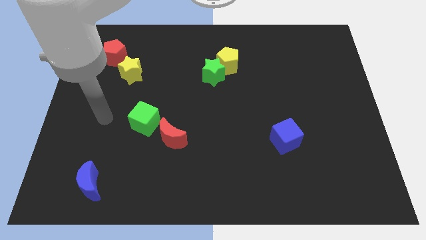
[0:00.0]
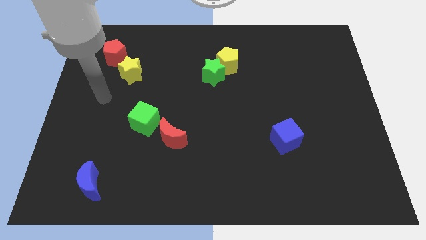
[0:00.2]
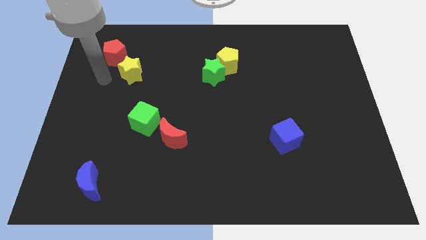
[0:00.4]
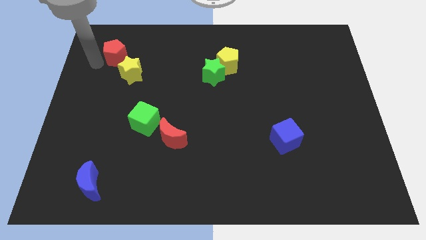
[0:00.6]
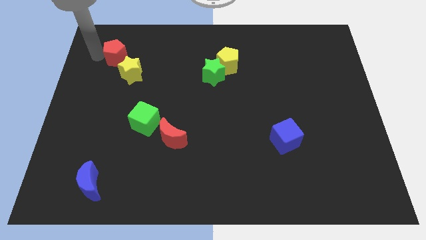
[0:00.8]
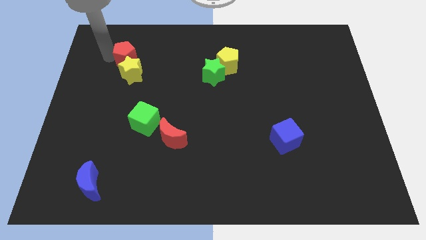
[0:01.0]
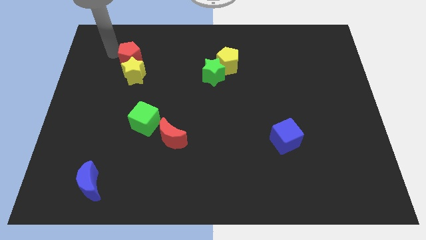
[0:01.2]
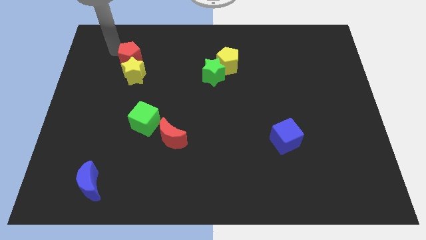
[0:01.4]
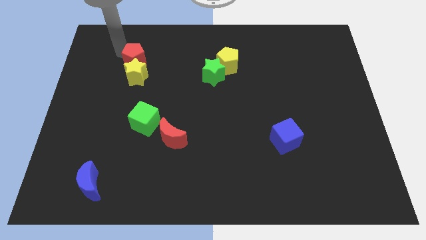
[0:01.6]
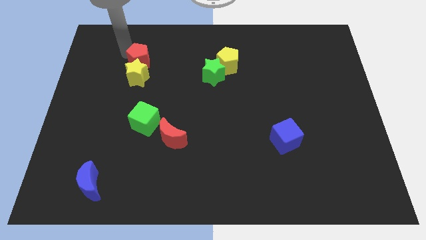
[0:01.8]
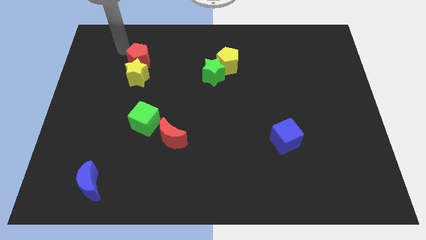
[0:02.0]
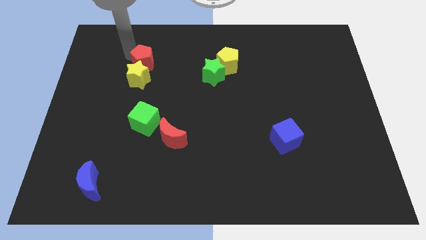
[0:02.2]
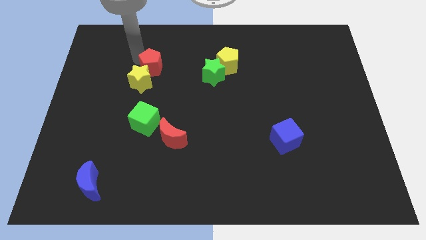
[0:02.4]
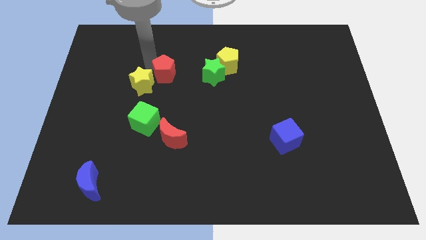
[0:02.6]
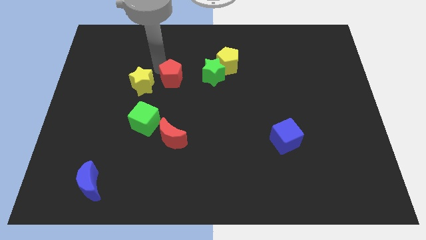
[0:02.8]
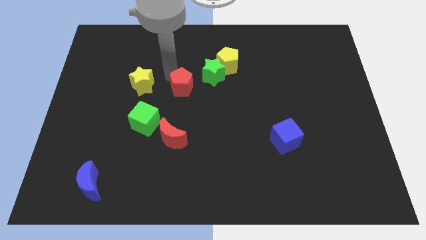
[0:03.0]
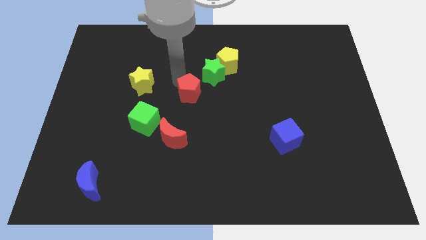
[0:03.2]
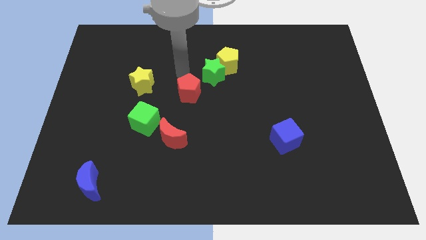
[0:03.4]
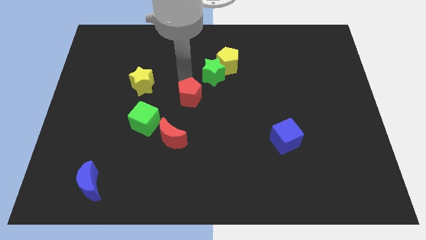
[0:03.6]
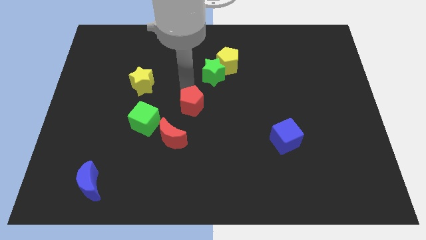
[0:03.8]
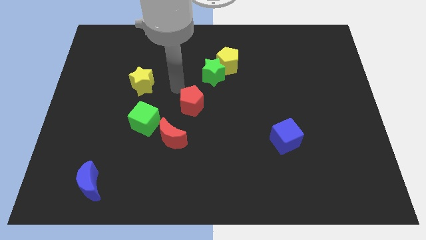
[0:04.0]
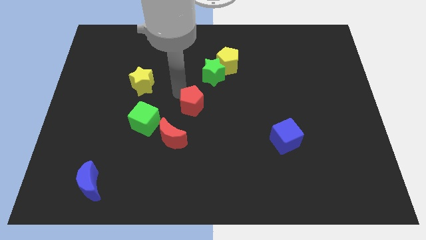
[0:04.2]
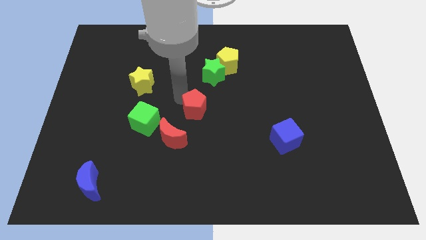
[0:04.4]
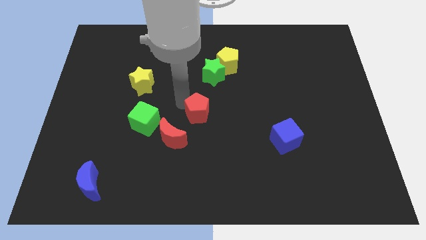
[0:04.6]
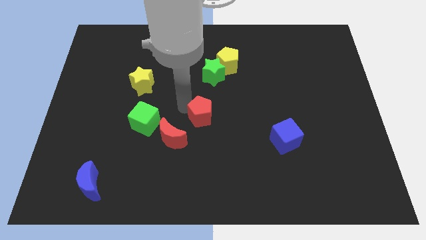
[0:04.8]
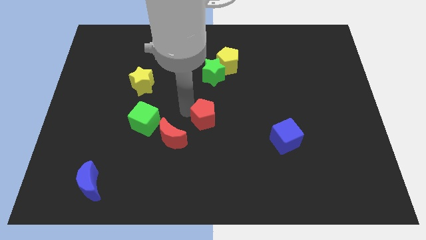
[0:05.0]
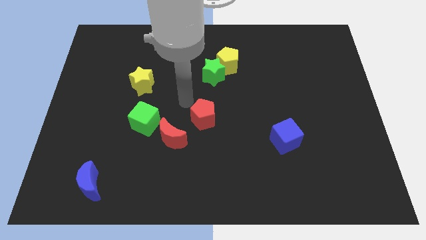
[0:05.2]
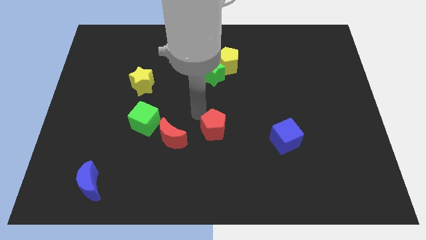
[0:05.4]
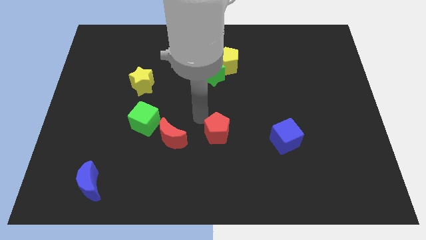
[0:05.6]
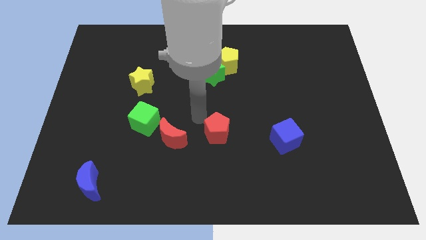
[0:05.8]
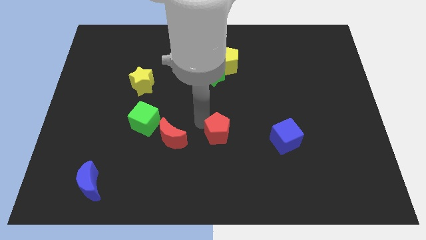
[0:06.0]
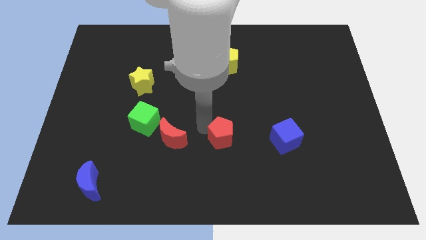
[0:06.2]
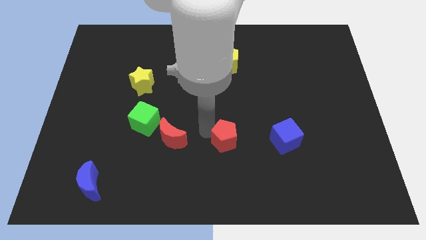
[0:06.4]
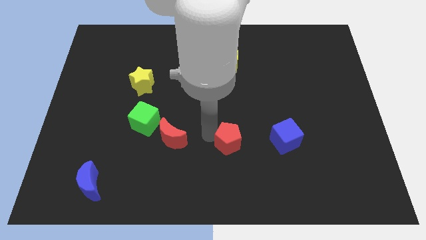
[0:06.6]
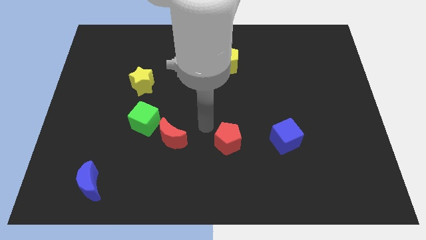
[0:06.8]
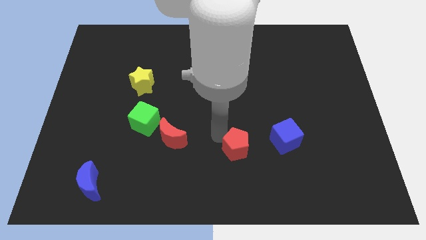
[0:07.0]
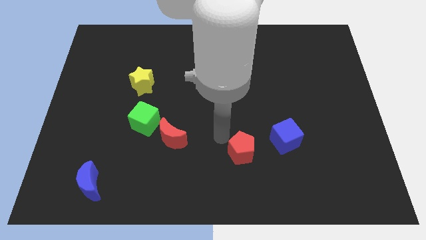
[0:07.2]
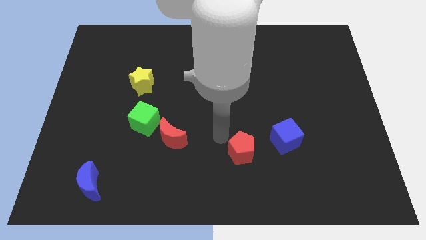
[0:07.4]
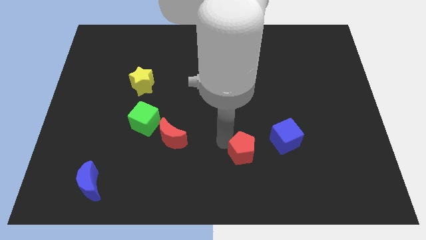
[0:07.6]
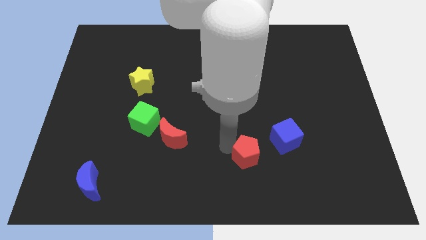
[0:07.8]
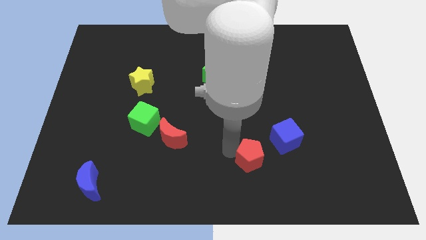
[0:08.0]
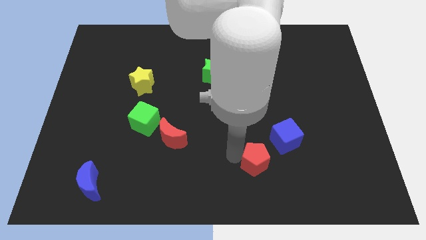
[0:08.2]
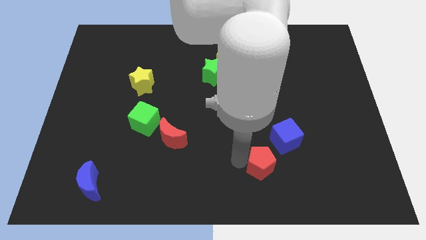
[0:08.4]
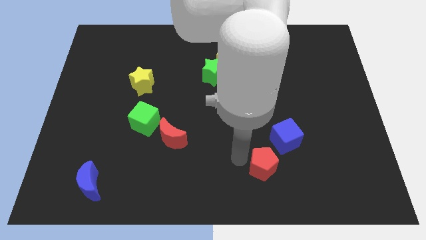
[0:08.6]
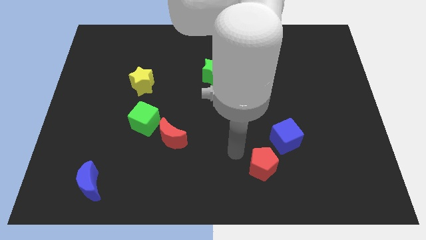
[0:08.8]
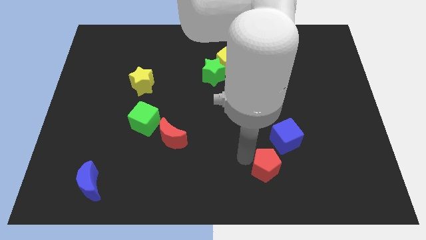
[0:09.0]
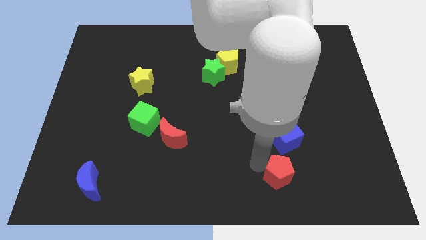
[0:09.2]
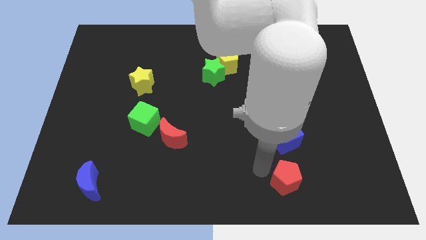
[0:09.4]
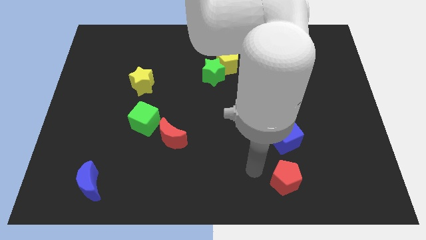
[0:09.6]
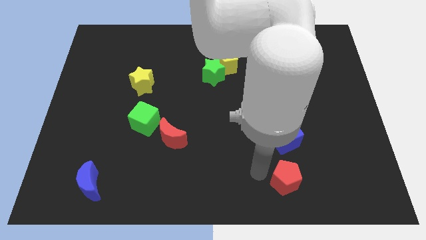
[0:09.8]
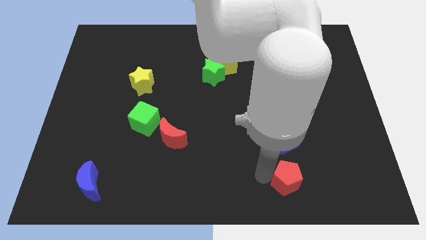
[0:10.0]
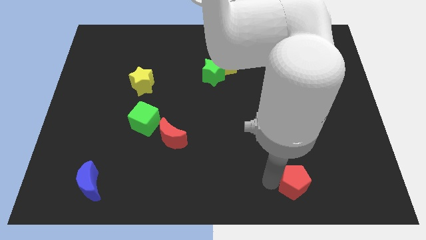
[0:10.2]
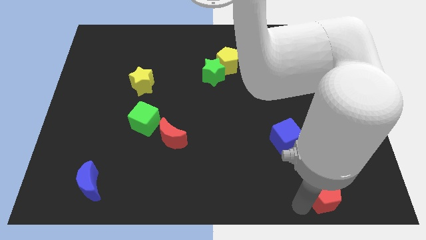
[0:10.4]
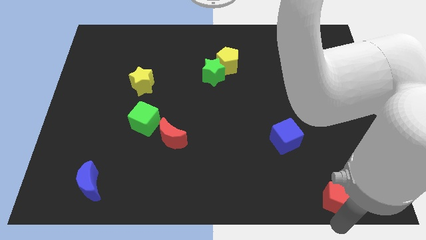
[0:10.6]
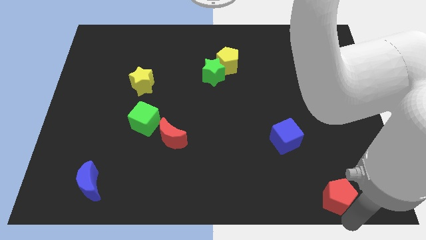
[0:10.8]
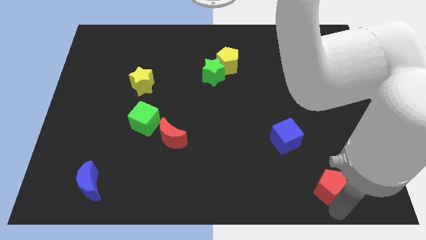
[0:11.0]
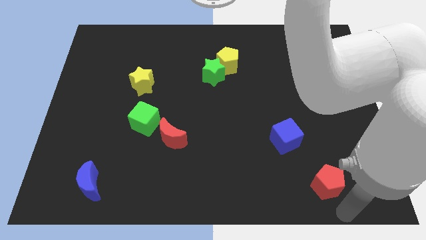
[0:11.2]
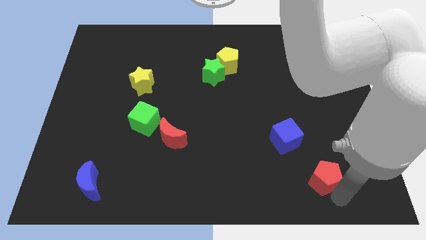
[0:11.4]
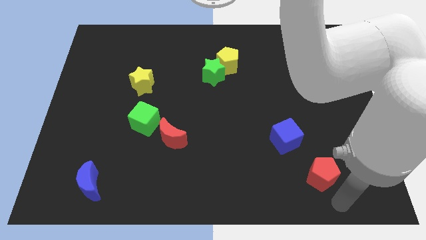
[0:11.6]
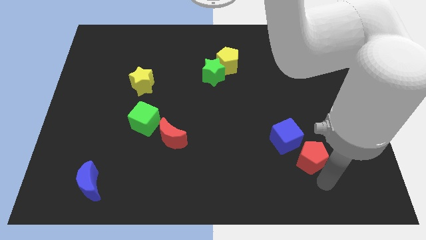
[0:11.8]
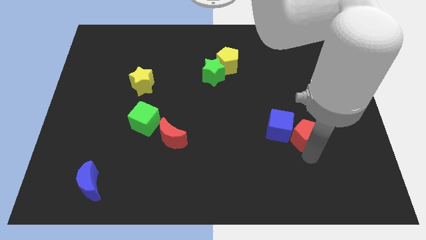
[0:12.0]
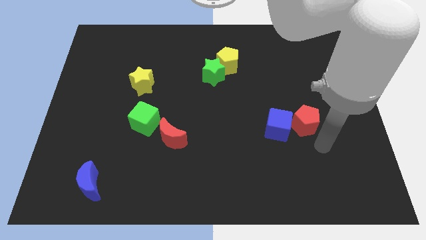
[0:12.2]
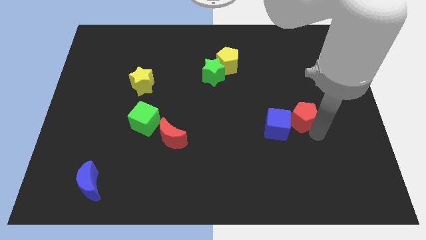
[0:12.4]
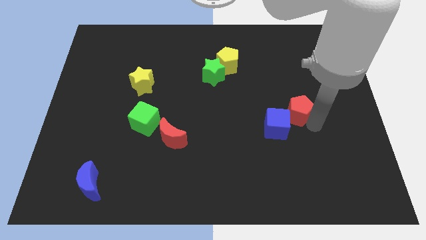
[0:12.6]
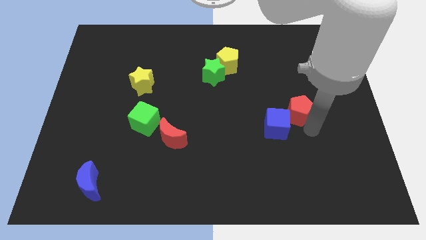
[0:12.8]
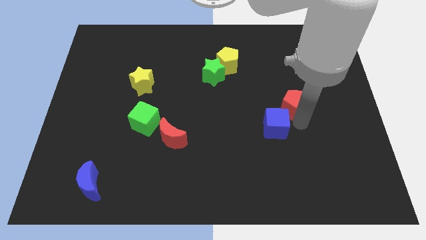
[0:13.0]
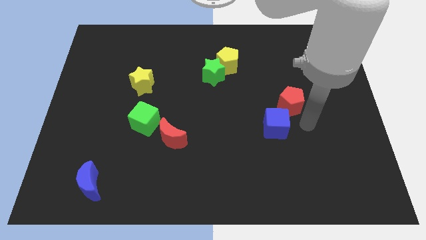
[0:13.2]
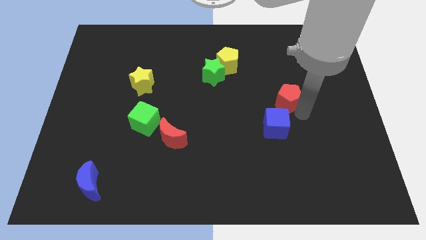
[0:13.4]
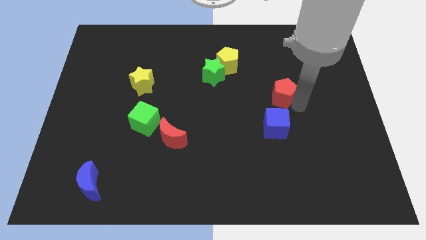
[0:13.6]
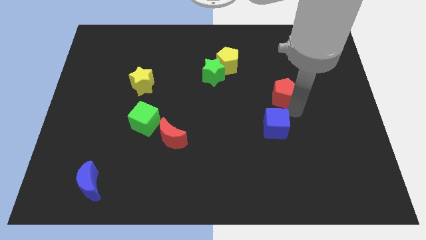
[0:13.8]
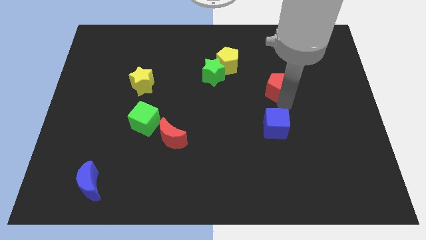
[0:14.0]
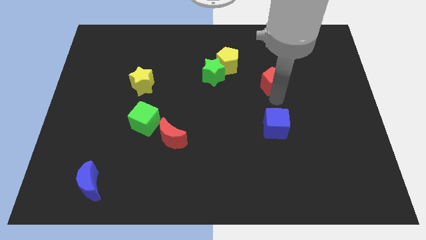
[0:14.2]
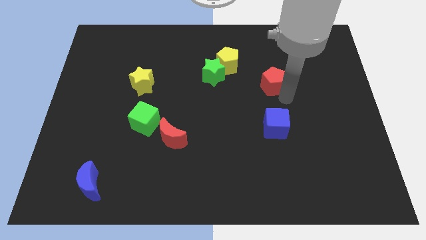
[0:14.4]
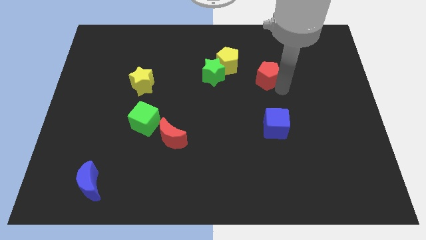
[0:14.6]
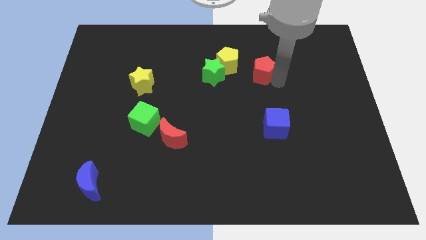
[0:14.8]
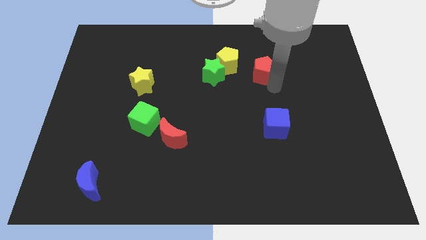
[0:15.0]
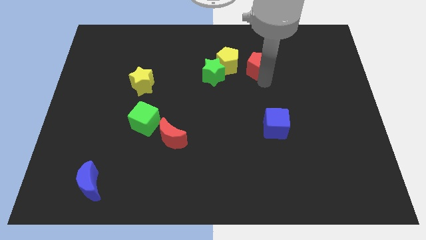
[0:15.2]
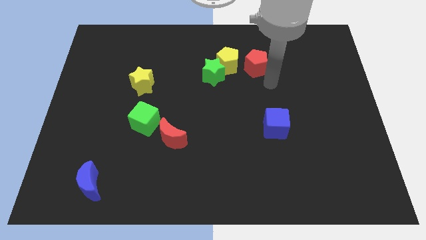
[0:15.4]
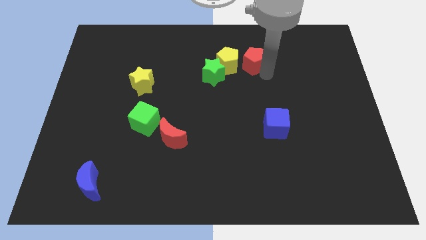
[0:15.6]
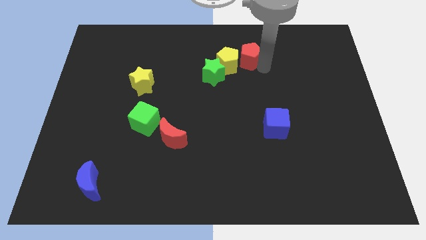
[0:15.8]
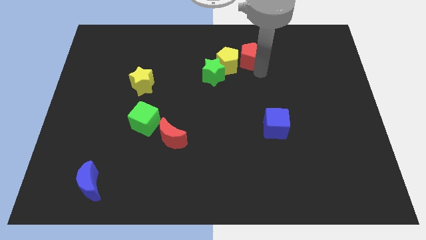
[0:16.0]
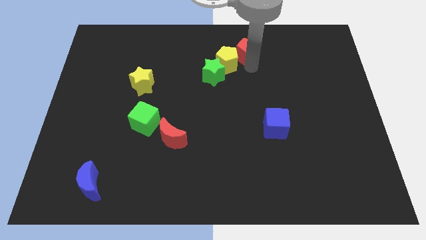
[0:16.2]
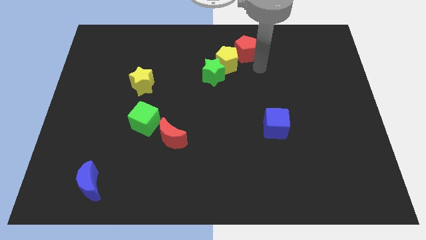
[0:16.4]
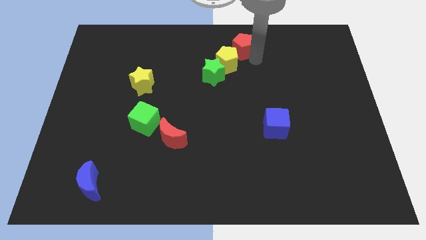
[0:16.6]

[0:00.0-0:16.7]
put the red pentagon to the towards your base
